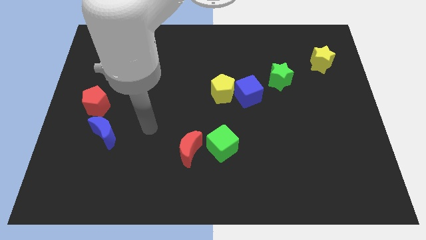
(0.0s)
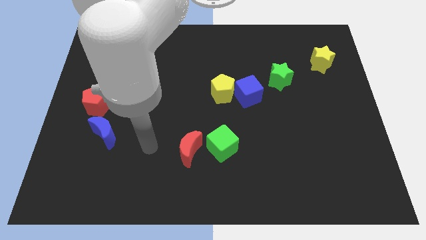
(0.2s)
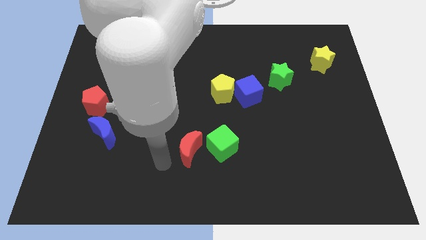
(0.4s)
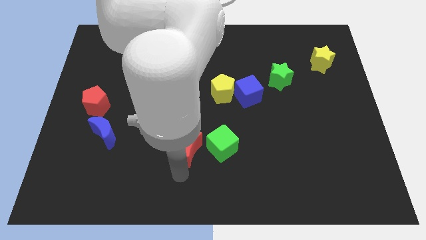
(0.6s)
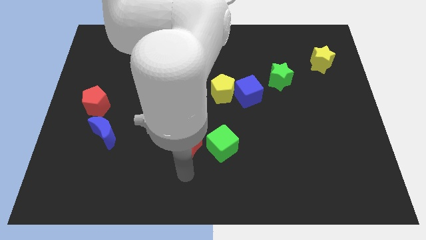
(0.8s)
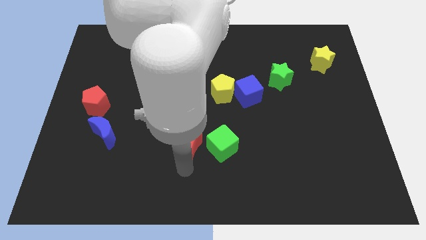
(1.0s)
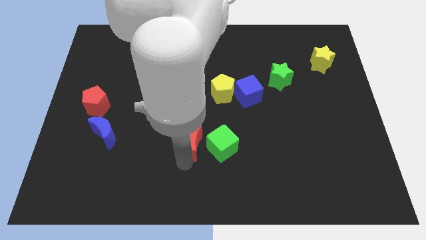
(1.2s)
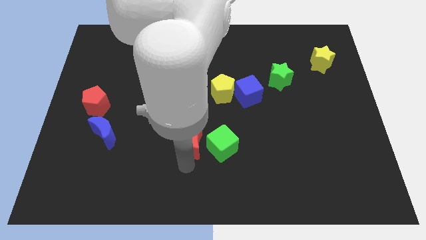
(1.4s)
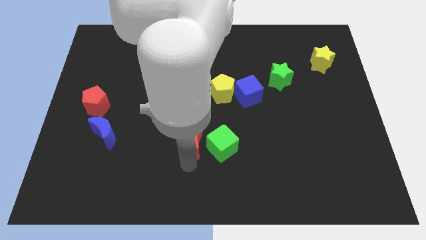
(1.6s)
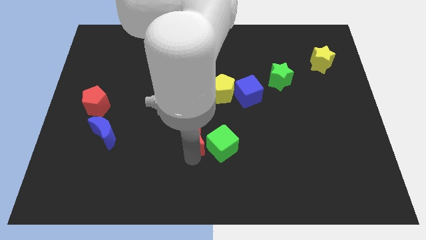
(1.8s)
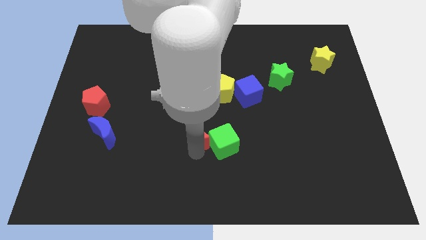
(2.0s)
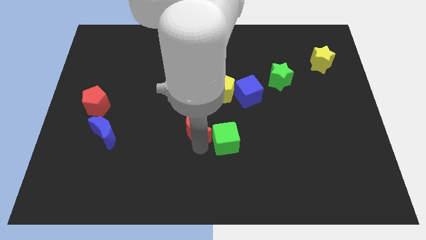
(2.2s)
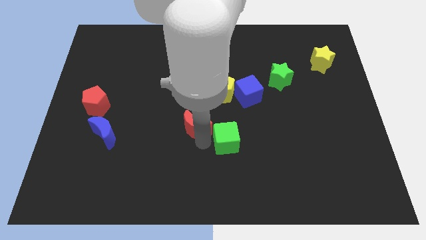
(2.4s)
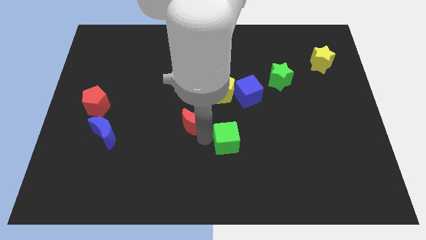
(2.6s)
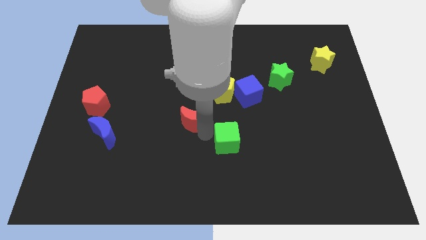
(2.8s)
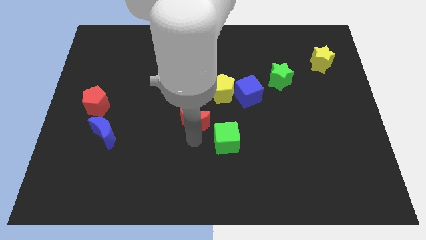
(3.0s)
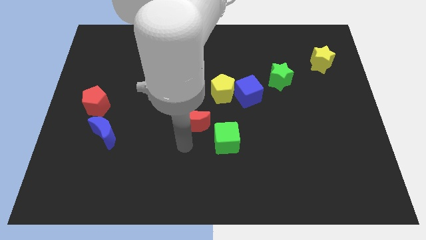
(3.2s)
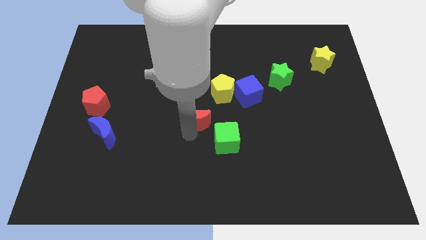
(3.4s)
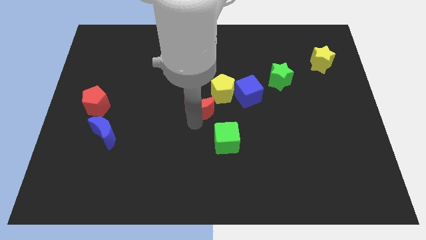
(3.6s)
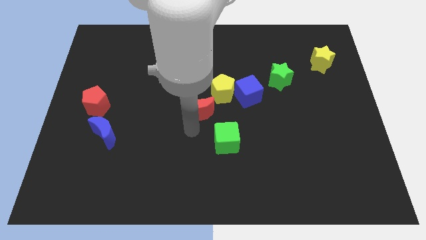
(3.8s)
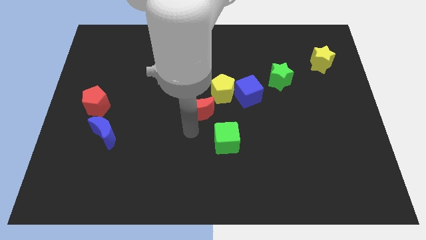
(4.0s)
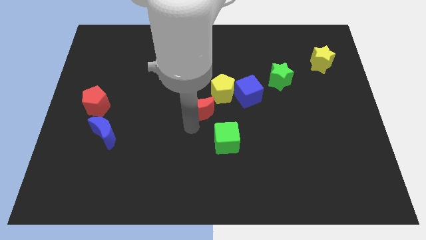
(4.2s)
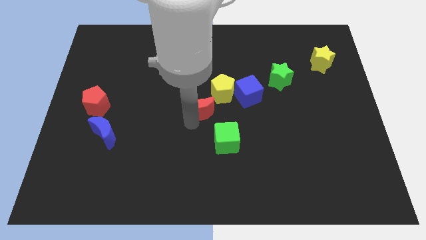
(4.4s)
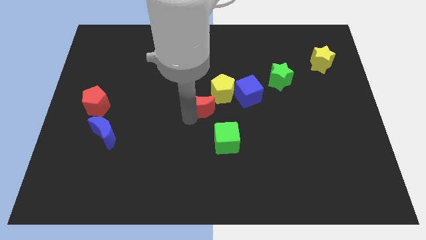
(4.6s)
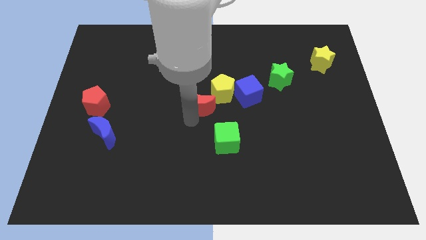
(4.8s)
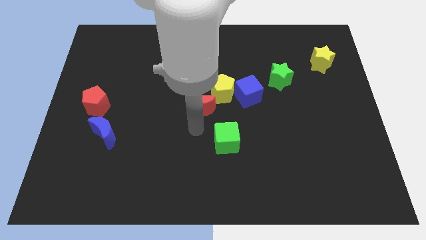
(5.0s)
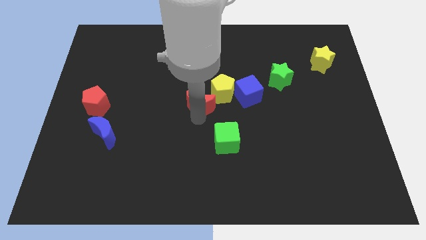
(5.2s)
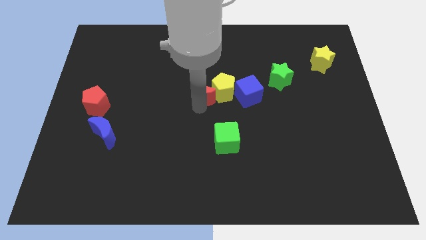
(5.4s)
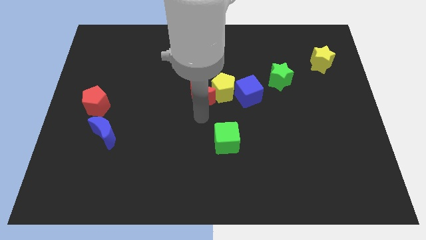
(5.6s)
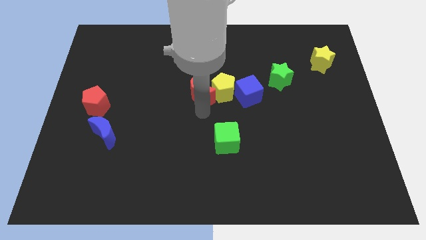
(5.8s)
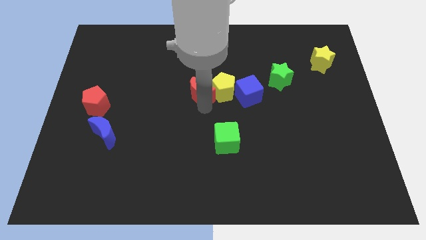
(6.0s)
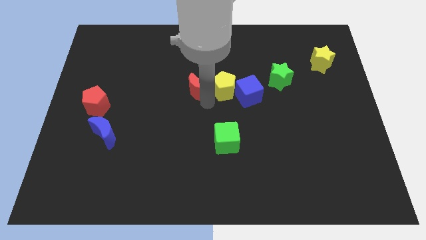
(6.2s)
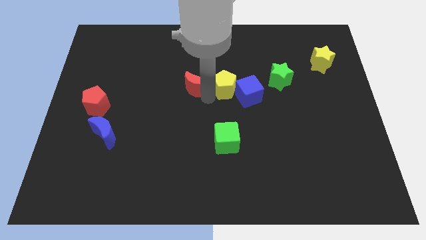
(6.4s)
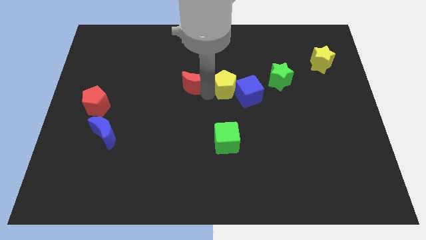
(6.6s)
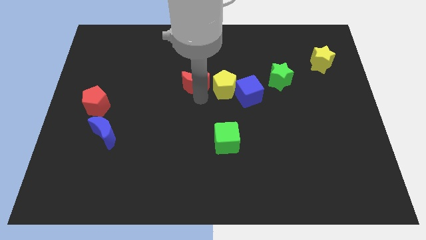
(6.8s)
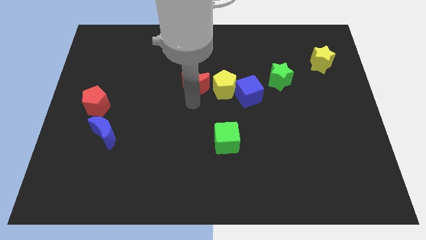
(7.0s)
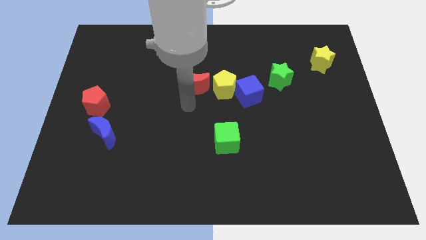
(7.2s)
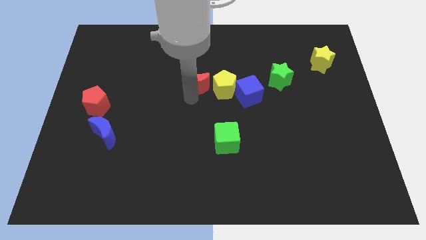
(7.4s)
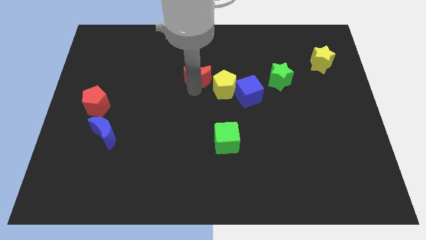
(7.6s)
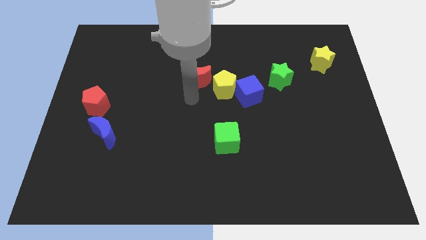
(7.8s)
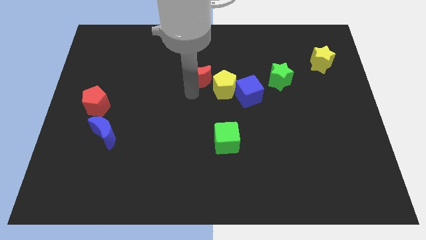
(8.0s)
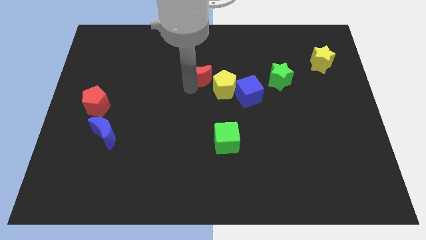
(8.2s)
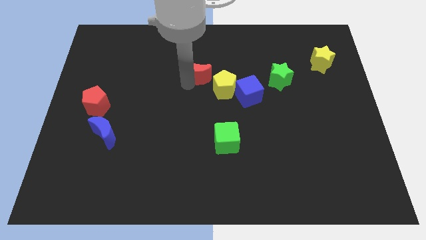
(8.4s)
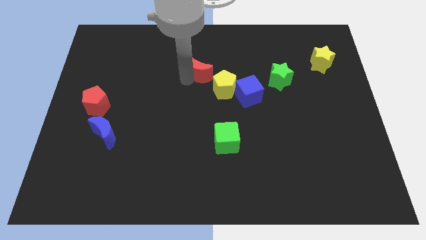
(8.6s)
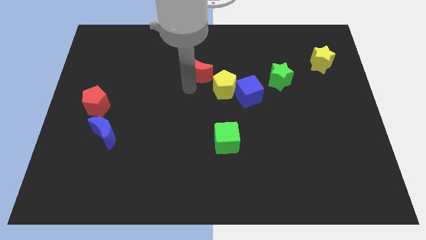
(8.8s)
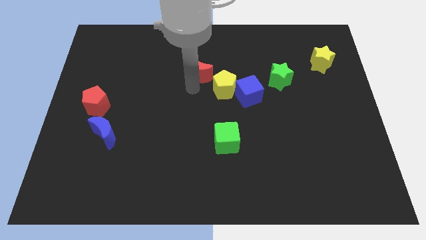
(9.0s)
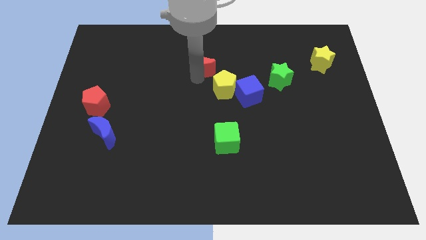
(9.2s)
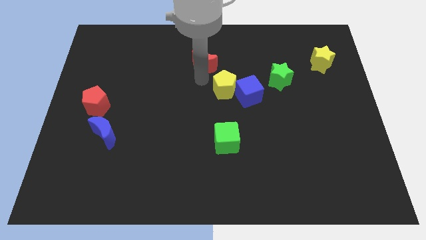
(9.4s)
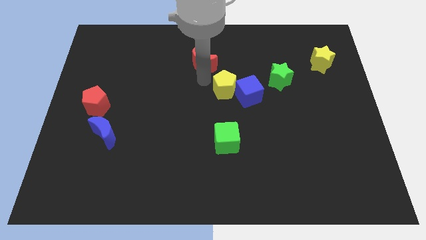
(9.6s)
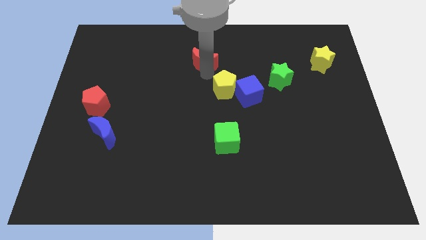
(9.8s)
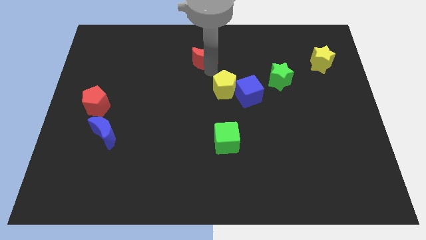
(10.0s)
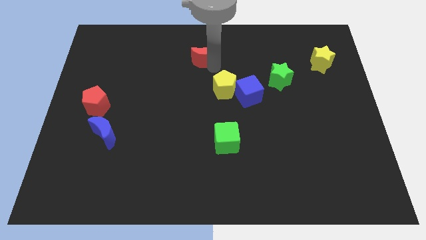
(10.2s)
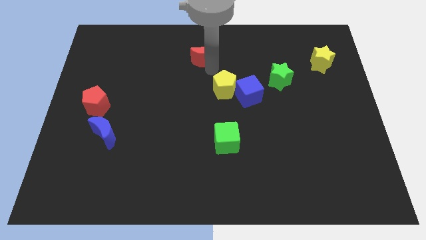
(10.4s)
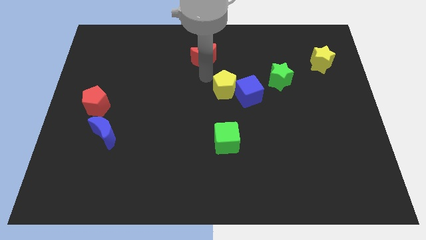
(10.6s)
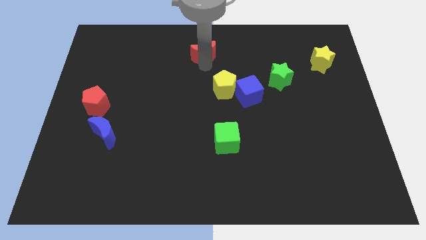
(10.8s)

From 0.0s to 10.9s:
push the red moon to the towards your base
